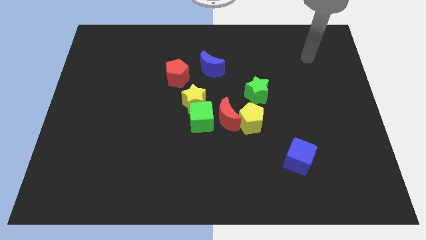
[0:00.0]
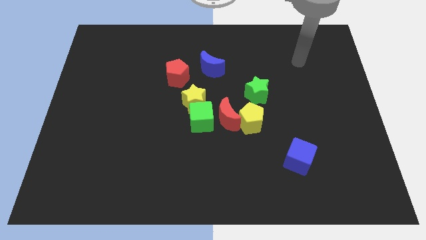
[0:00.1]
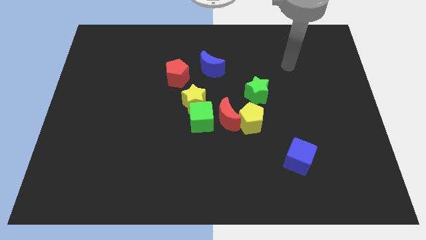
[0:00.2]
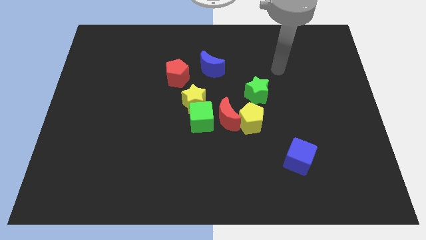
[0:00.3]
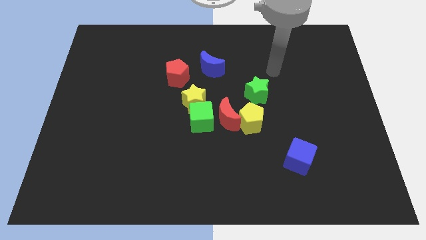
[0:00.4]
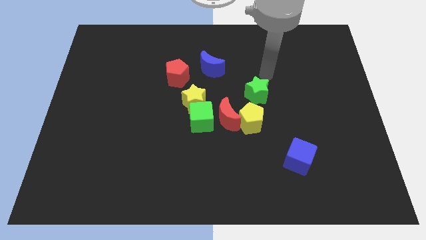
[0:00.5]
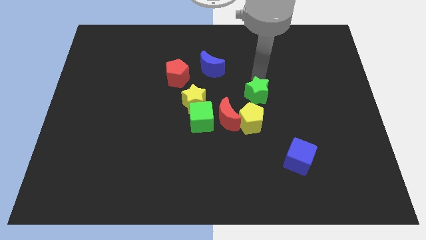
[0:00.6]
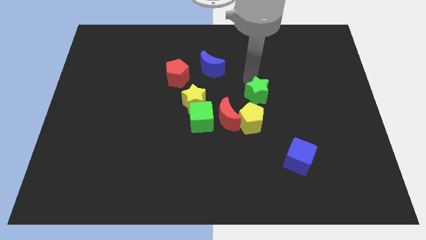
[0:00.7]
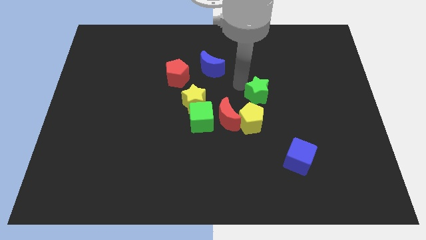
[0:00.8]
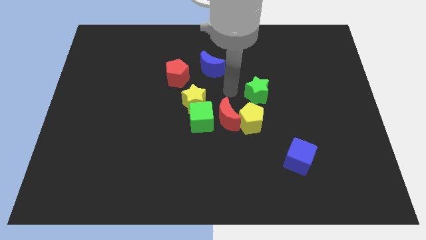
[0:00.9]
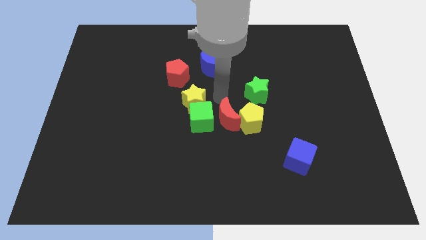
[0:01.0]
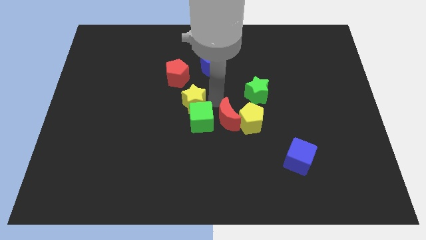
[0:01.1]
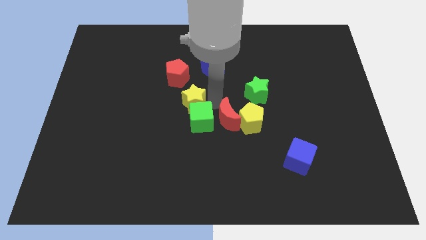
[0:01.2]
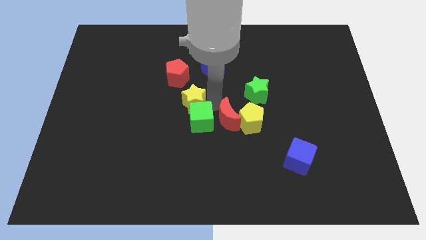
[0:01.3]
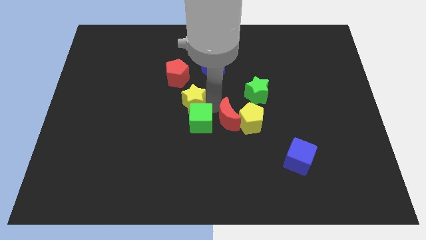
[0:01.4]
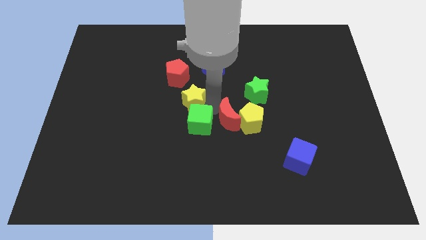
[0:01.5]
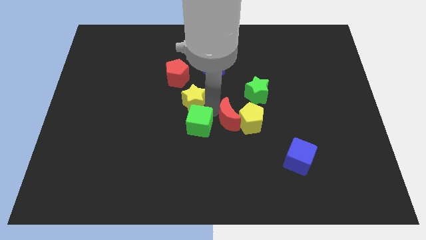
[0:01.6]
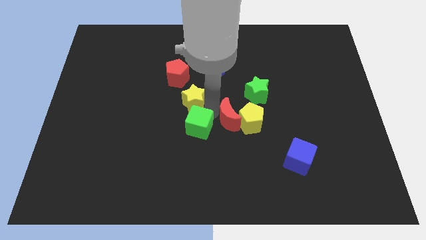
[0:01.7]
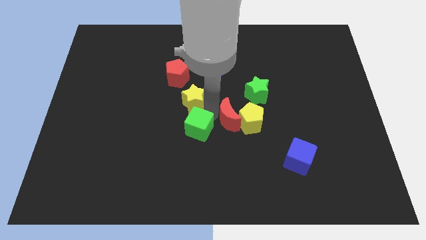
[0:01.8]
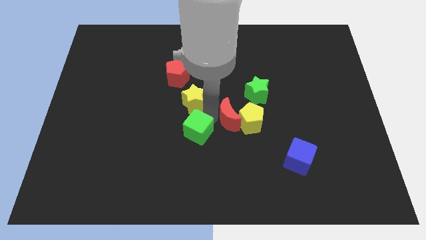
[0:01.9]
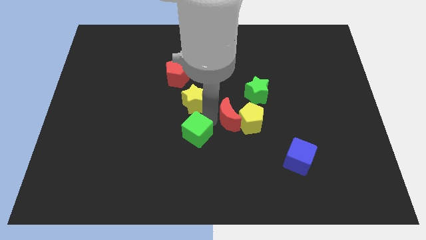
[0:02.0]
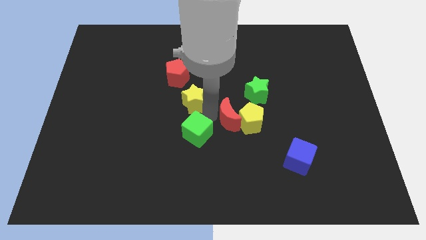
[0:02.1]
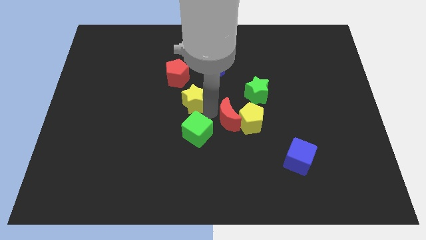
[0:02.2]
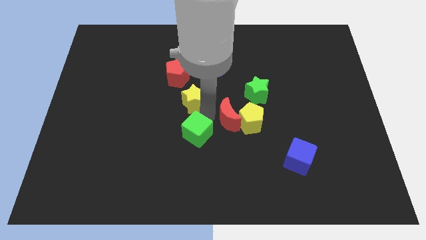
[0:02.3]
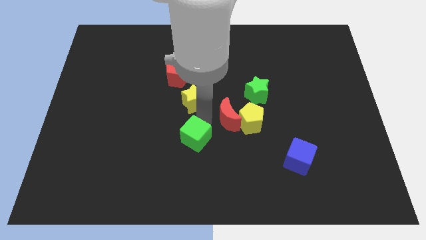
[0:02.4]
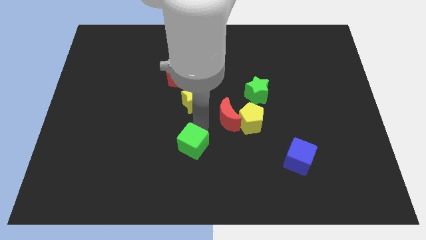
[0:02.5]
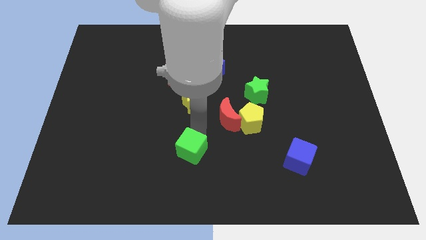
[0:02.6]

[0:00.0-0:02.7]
separate the green cube from the yellow star and red moon

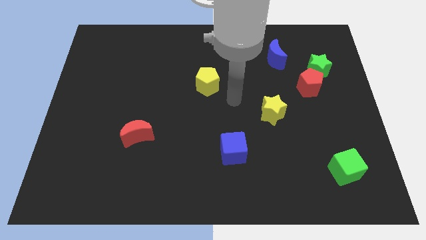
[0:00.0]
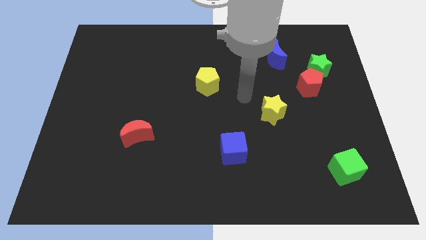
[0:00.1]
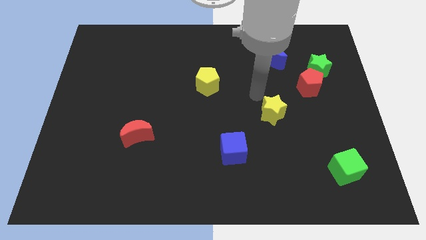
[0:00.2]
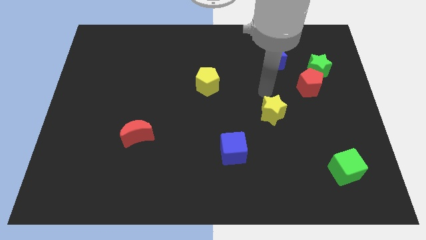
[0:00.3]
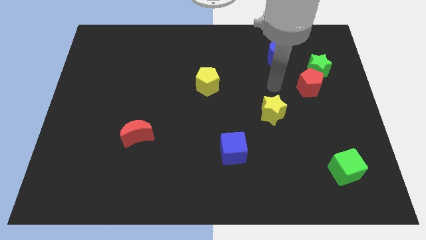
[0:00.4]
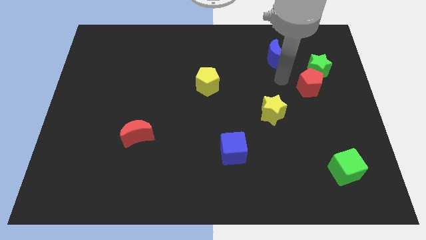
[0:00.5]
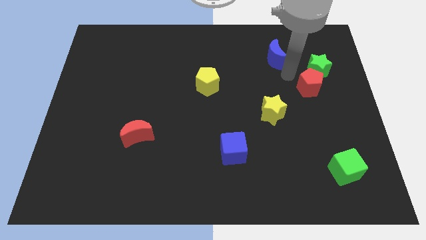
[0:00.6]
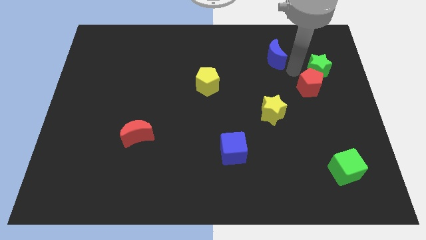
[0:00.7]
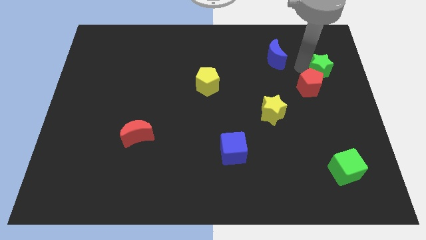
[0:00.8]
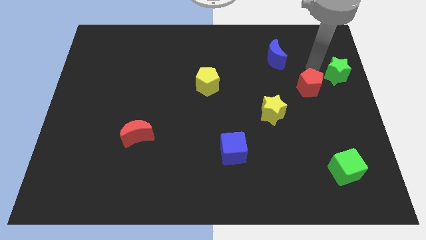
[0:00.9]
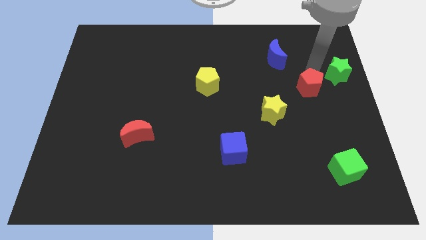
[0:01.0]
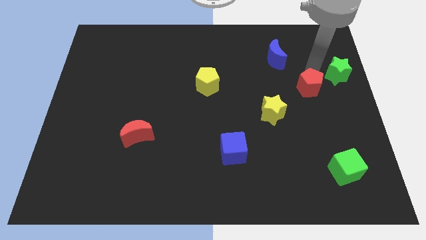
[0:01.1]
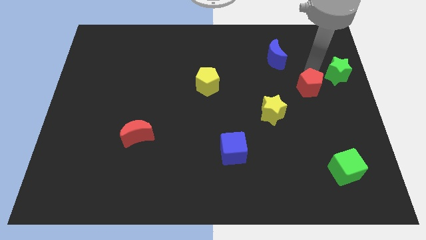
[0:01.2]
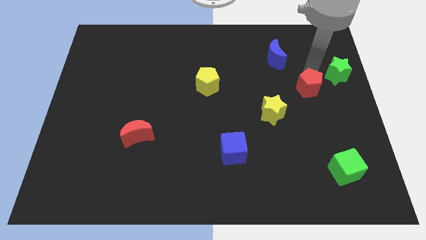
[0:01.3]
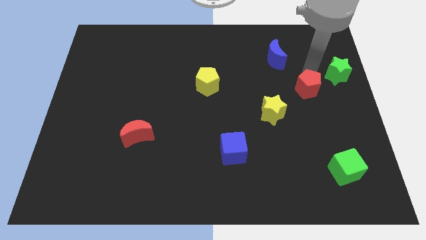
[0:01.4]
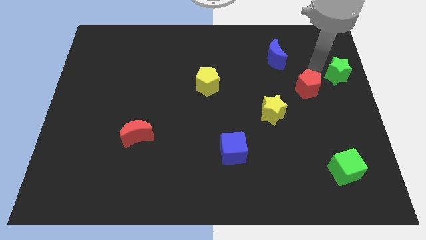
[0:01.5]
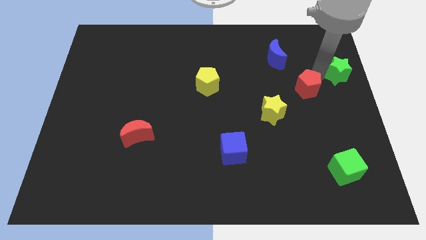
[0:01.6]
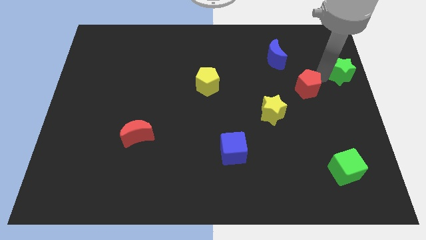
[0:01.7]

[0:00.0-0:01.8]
pull the red pentagon apart from the green star

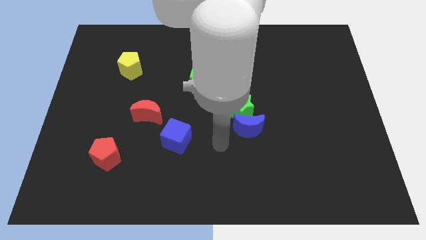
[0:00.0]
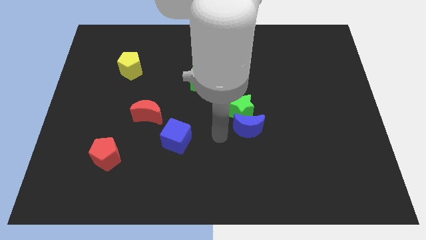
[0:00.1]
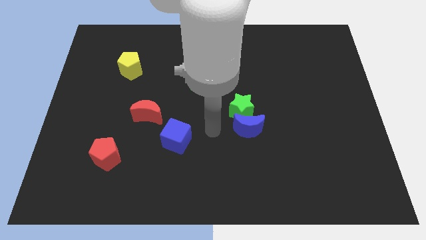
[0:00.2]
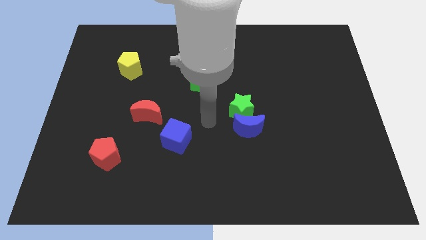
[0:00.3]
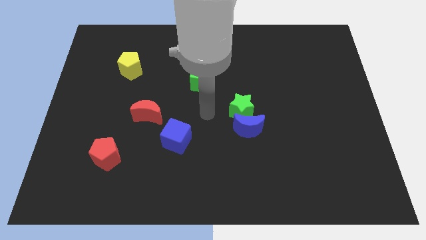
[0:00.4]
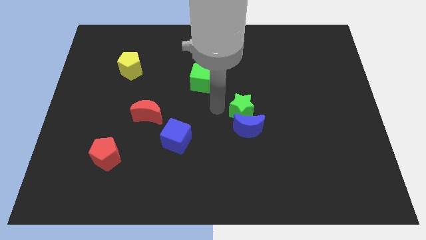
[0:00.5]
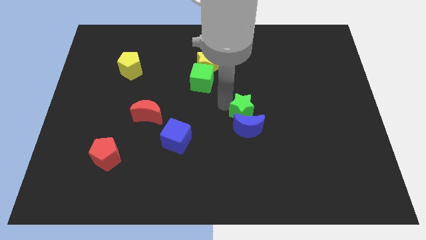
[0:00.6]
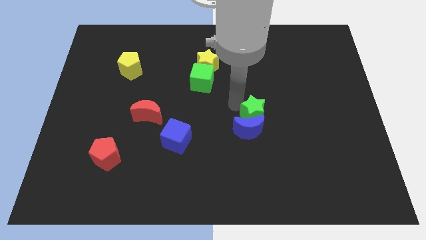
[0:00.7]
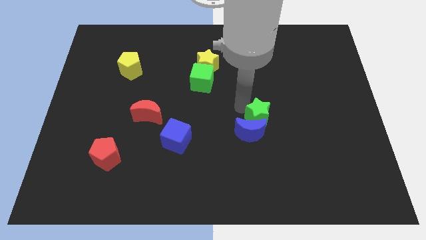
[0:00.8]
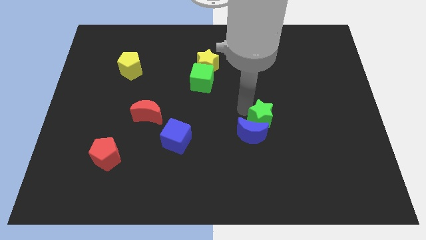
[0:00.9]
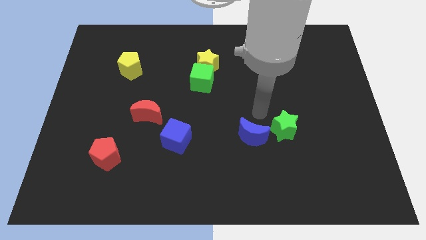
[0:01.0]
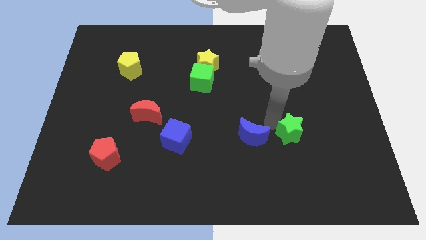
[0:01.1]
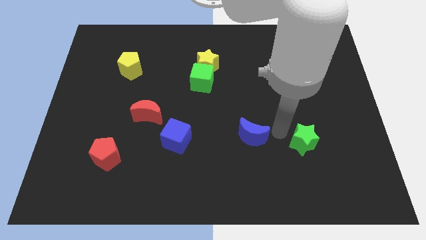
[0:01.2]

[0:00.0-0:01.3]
move the blue moon away from the green star

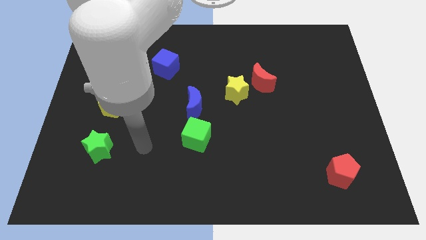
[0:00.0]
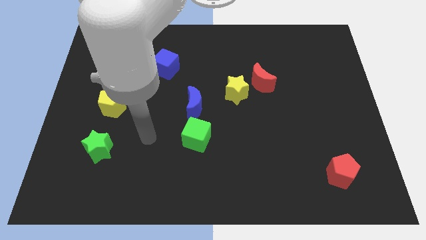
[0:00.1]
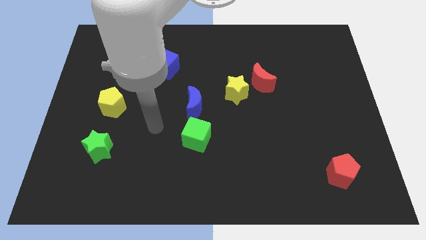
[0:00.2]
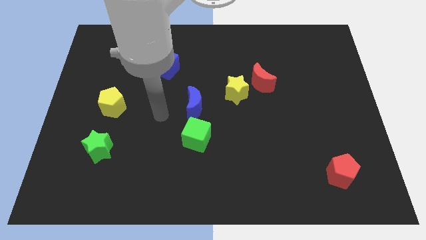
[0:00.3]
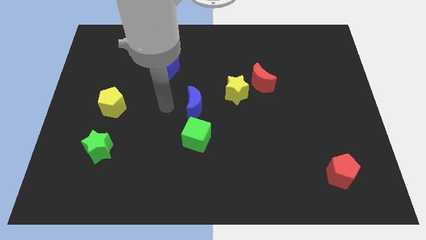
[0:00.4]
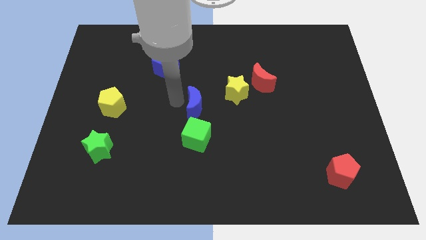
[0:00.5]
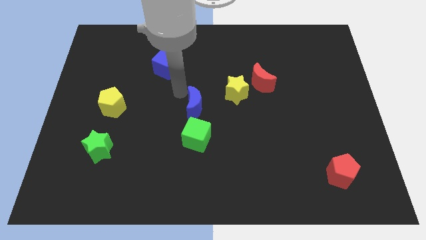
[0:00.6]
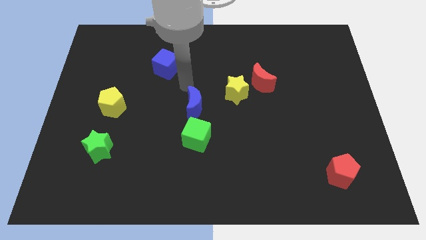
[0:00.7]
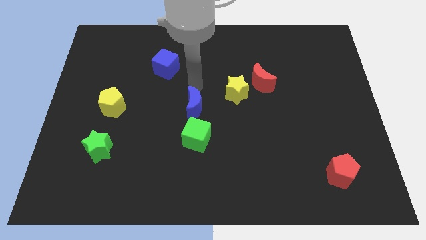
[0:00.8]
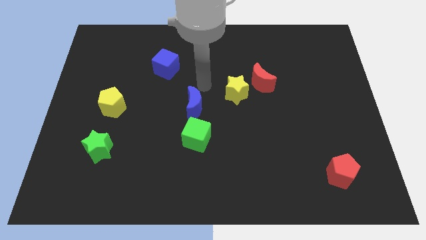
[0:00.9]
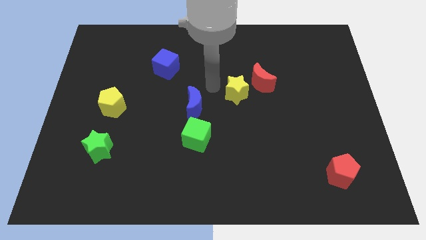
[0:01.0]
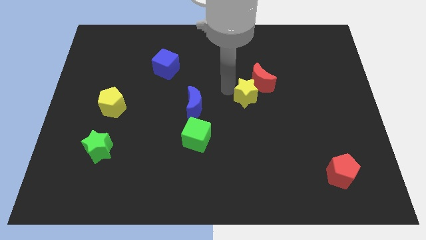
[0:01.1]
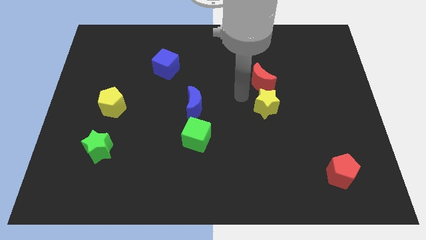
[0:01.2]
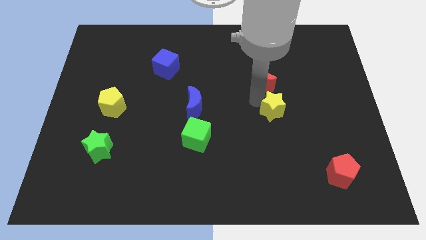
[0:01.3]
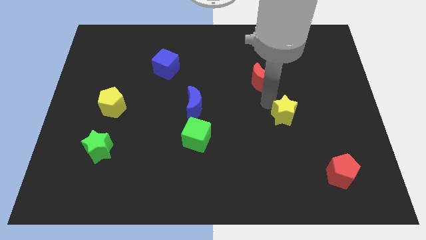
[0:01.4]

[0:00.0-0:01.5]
separate the red moon from the yellow star

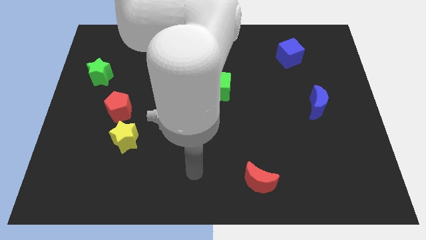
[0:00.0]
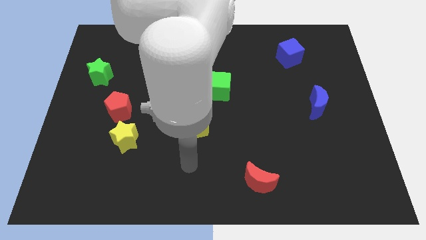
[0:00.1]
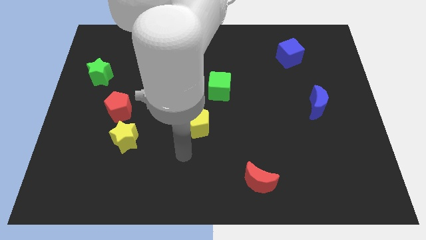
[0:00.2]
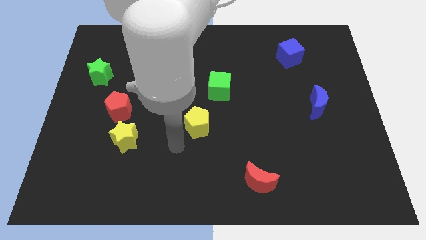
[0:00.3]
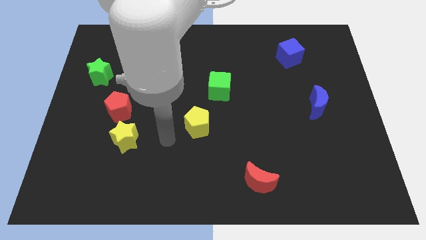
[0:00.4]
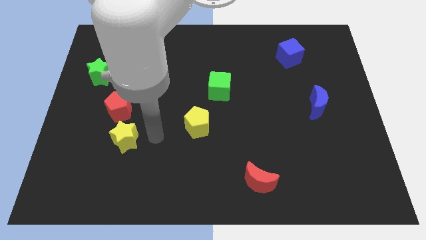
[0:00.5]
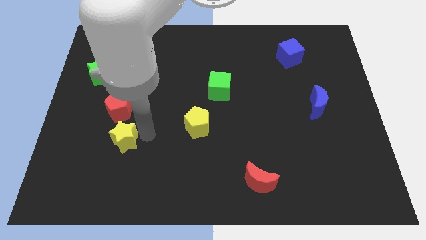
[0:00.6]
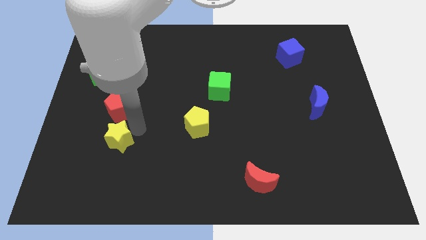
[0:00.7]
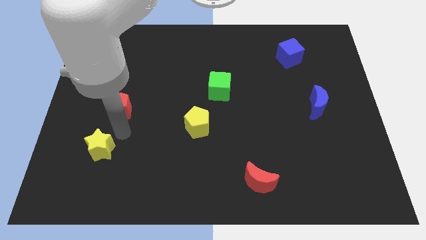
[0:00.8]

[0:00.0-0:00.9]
move the red pentagon away from the yellow star

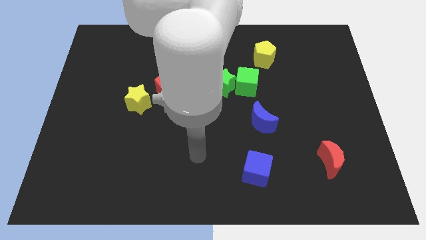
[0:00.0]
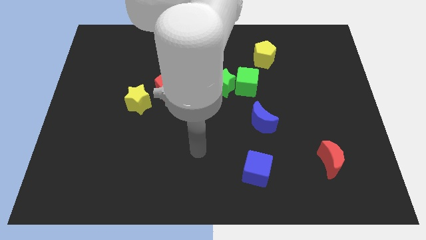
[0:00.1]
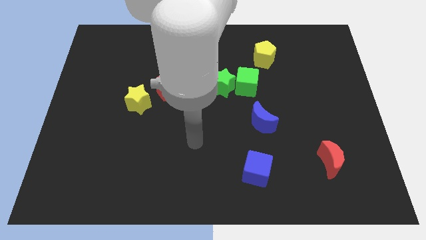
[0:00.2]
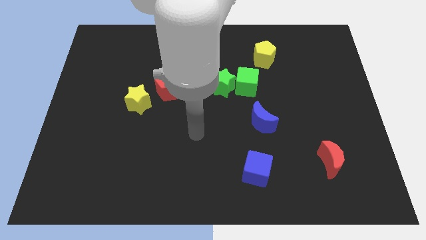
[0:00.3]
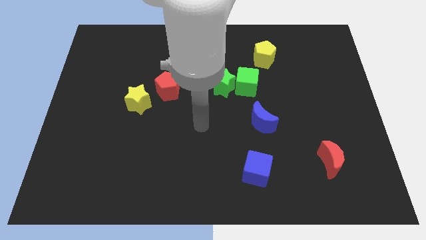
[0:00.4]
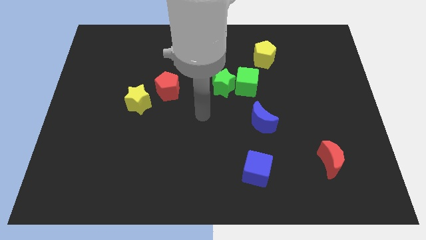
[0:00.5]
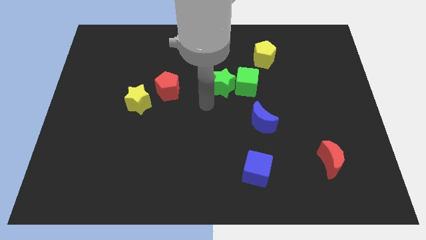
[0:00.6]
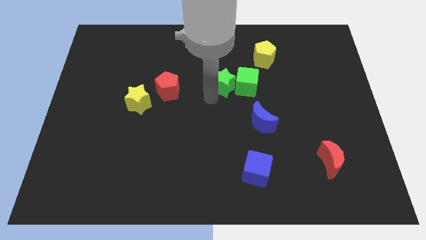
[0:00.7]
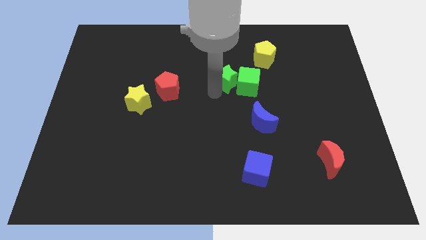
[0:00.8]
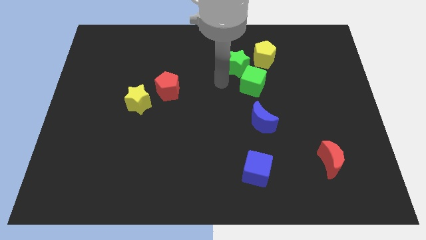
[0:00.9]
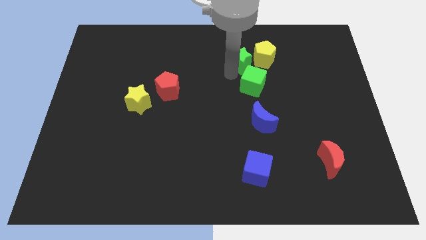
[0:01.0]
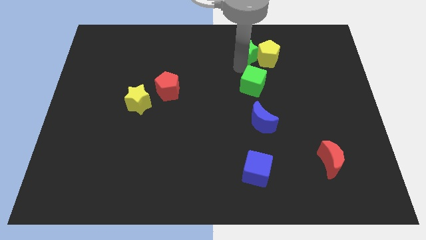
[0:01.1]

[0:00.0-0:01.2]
pull the green cube apart from the green star
